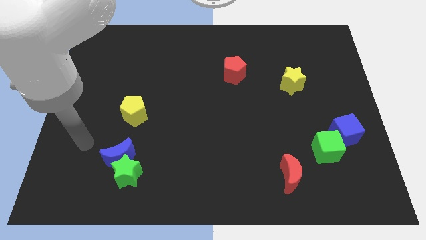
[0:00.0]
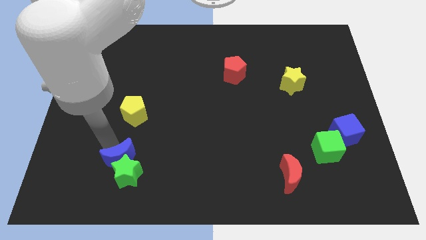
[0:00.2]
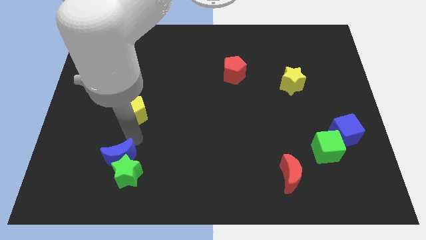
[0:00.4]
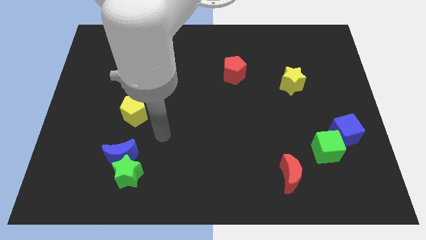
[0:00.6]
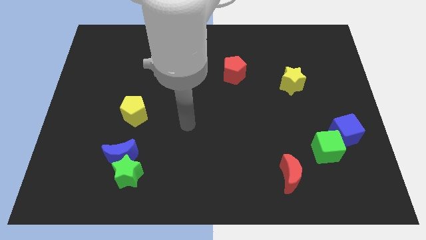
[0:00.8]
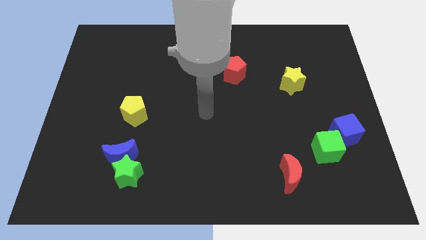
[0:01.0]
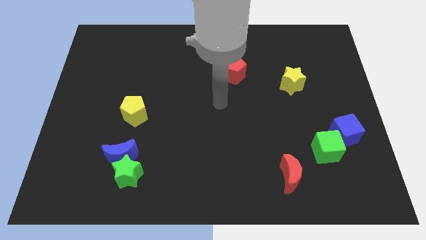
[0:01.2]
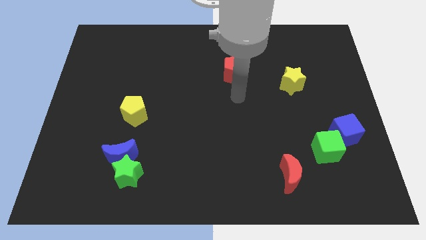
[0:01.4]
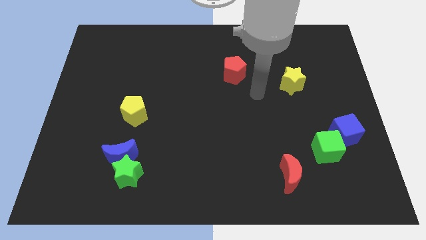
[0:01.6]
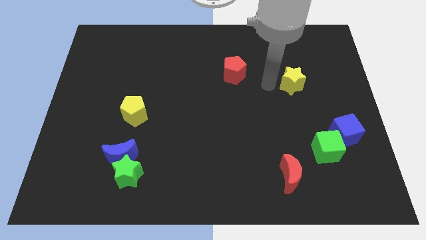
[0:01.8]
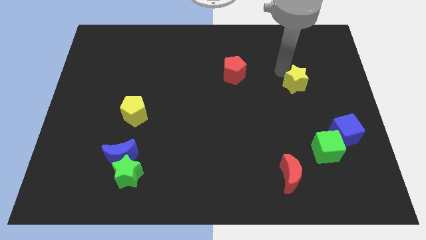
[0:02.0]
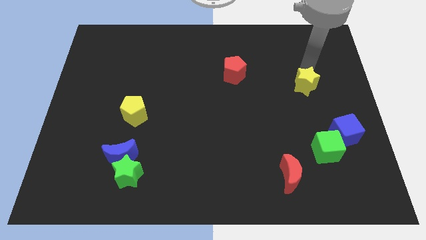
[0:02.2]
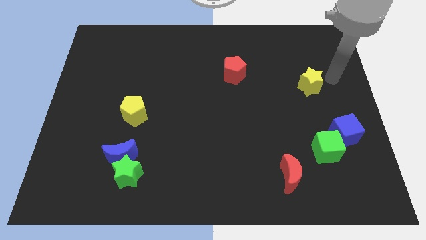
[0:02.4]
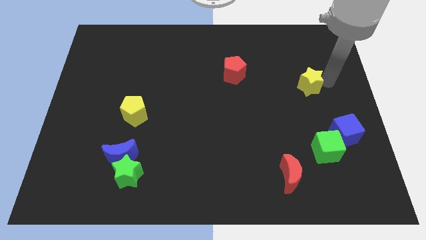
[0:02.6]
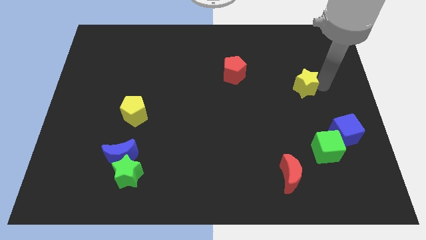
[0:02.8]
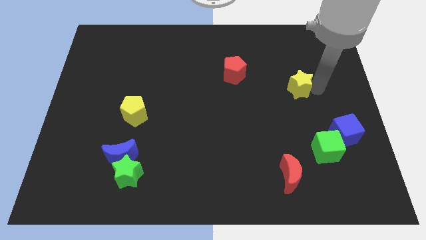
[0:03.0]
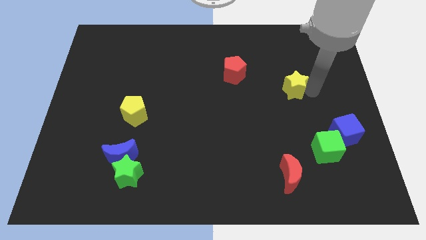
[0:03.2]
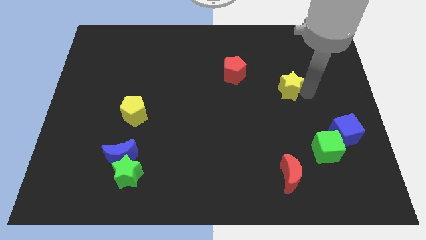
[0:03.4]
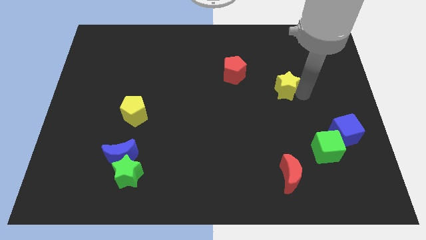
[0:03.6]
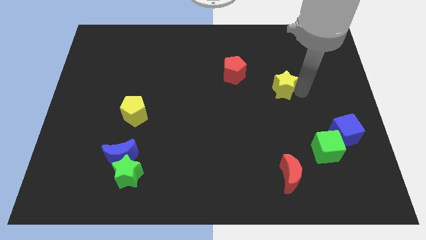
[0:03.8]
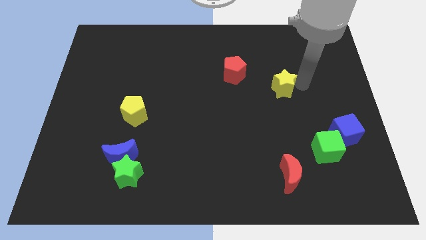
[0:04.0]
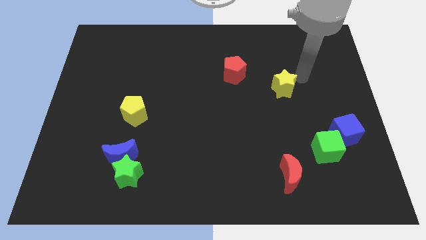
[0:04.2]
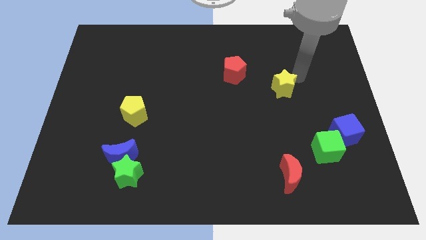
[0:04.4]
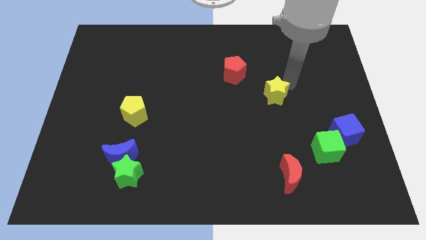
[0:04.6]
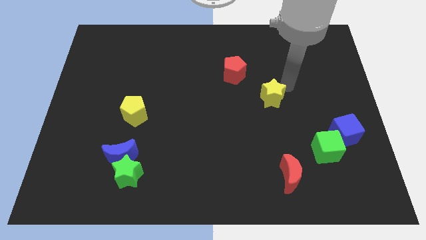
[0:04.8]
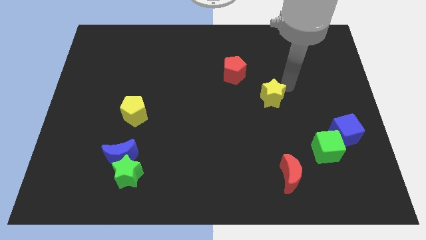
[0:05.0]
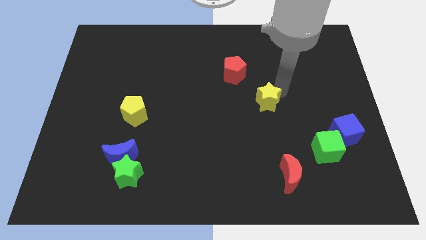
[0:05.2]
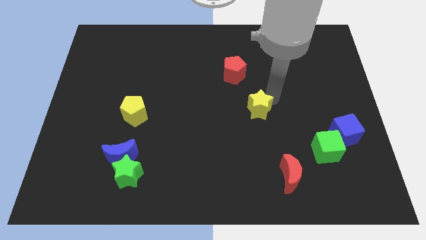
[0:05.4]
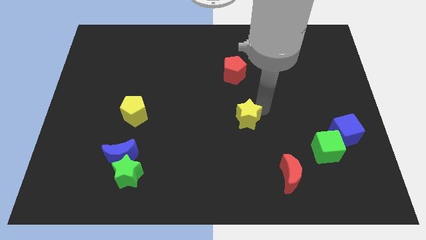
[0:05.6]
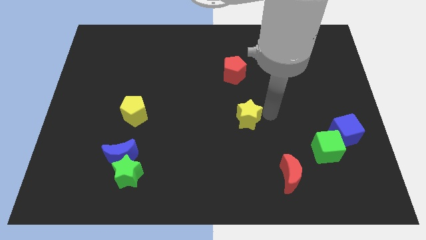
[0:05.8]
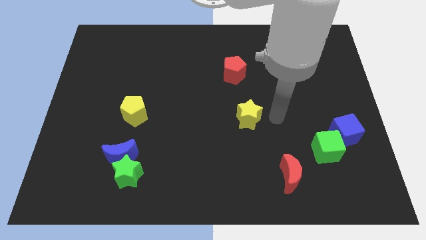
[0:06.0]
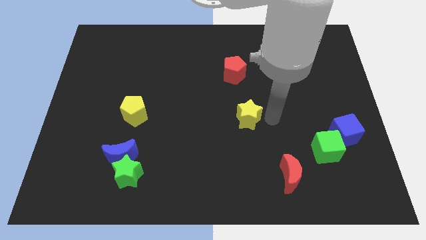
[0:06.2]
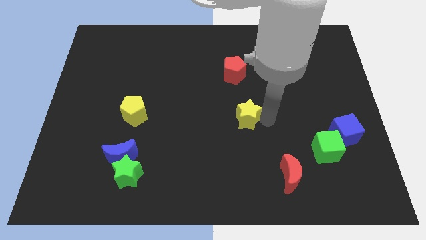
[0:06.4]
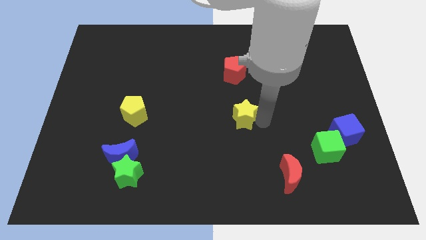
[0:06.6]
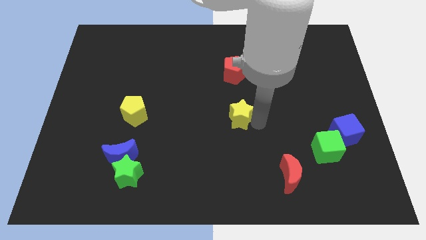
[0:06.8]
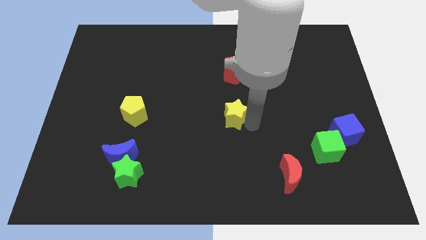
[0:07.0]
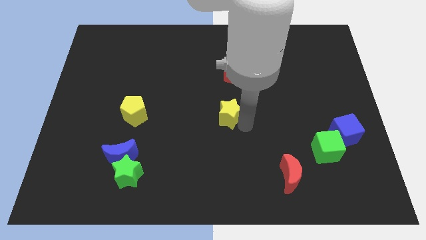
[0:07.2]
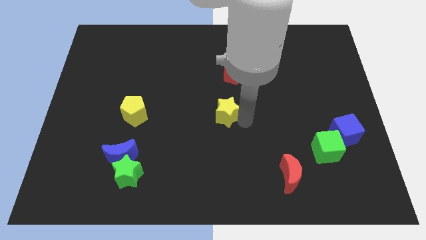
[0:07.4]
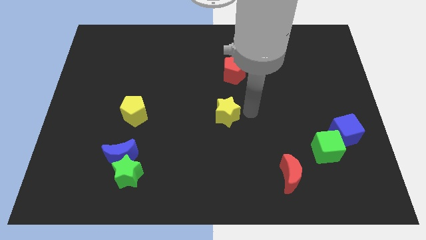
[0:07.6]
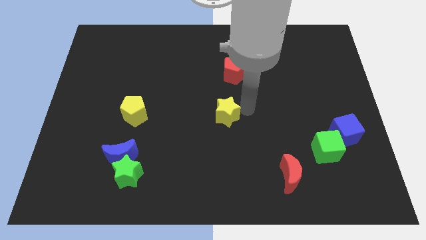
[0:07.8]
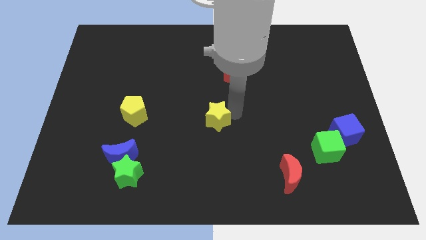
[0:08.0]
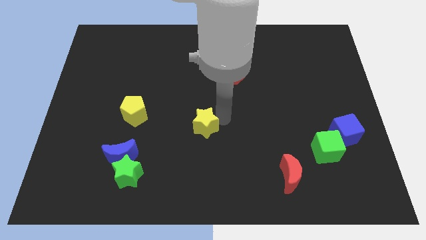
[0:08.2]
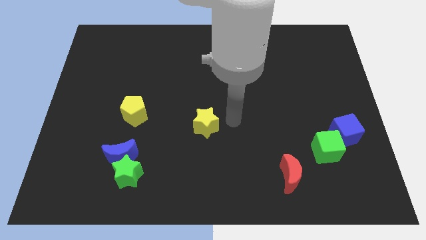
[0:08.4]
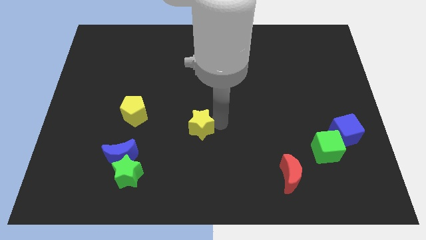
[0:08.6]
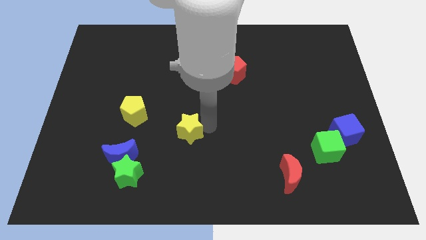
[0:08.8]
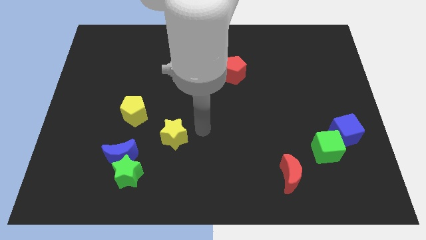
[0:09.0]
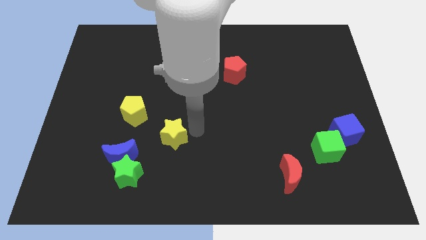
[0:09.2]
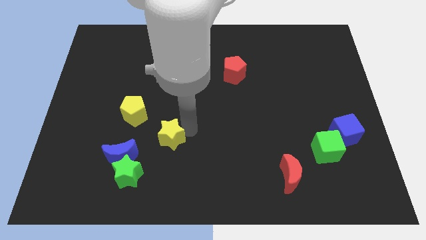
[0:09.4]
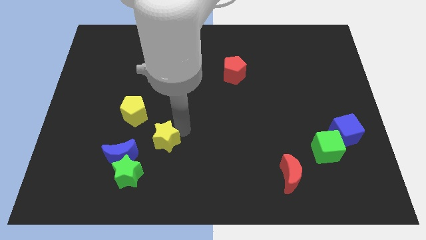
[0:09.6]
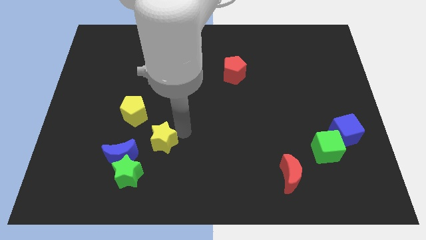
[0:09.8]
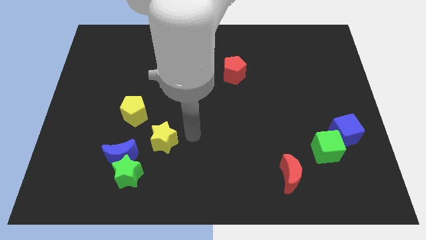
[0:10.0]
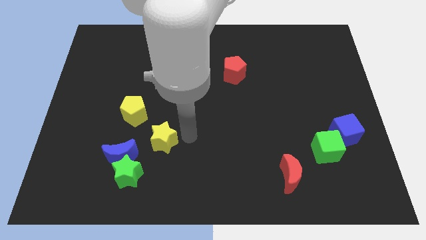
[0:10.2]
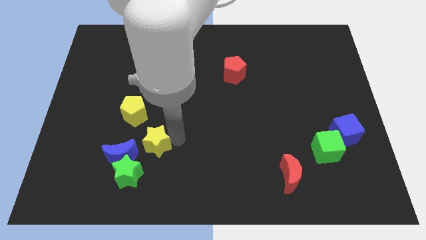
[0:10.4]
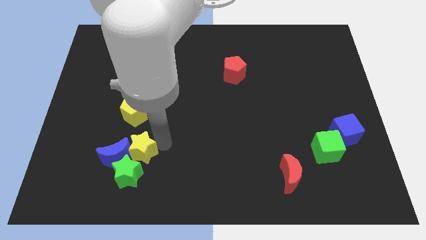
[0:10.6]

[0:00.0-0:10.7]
move the yellow star to the blue moon
